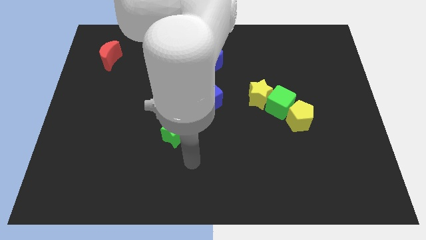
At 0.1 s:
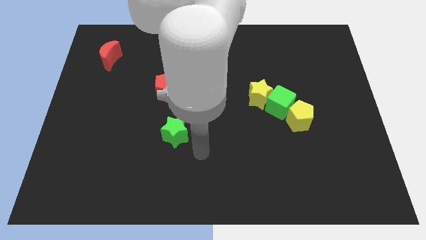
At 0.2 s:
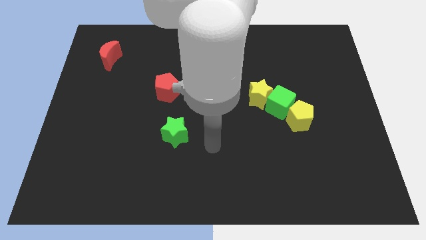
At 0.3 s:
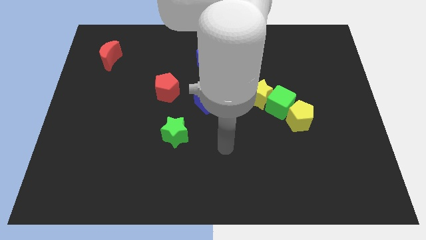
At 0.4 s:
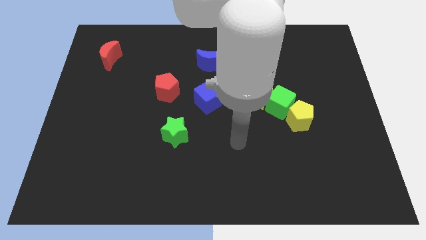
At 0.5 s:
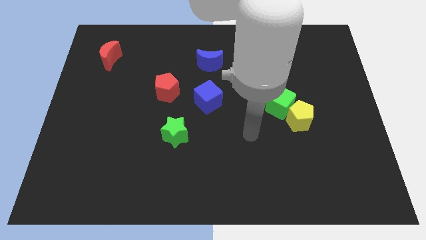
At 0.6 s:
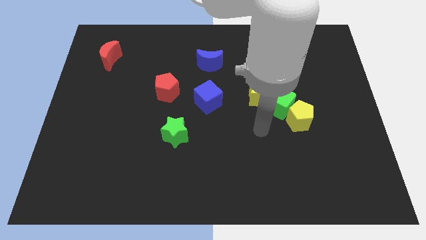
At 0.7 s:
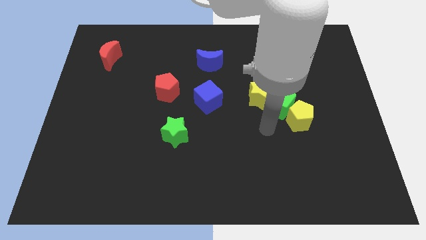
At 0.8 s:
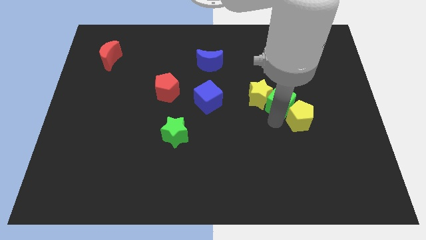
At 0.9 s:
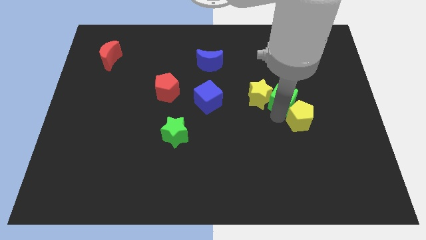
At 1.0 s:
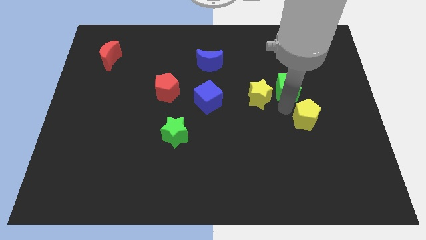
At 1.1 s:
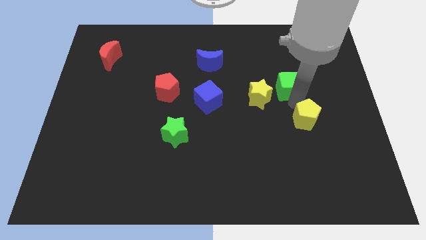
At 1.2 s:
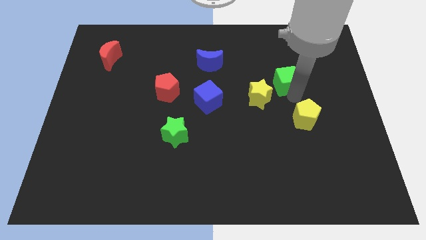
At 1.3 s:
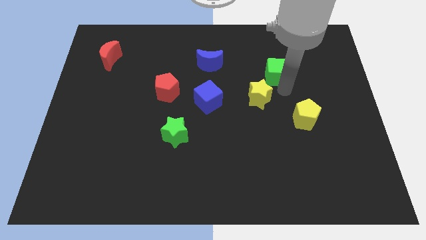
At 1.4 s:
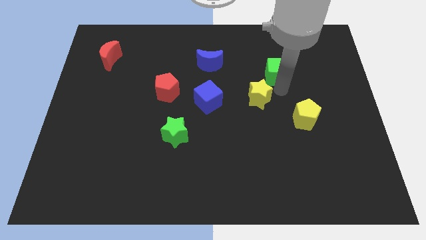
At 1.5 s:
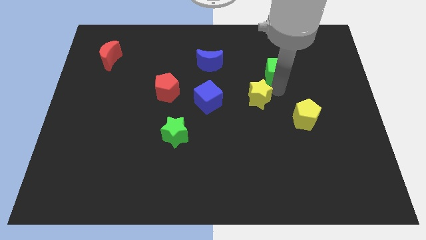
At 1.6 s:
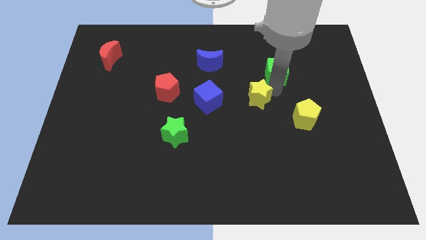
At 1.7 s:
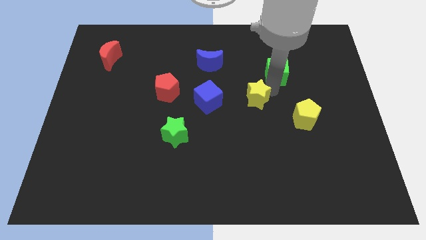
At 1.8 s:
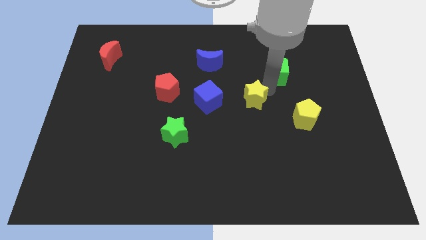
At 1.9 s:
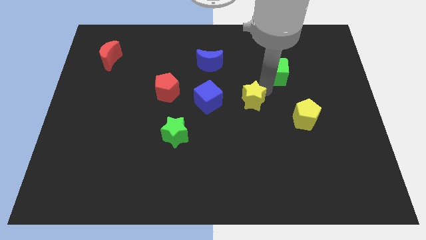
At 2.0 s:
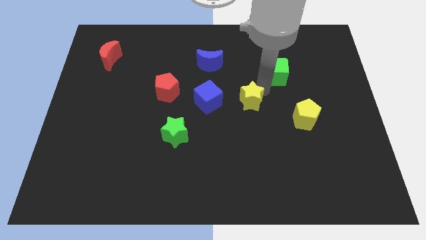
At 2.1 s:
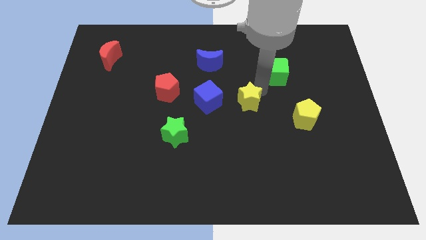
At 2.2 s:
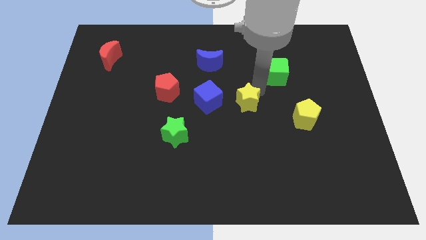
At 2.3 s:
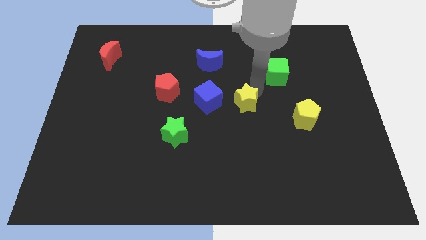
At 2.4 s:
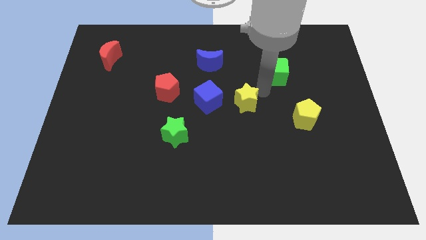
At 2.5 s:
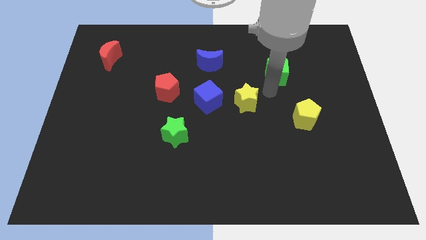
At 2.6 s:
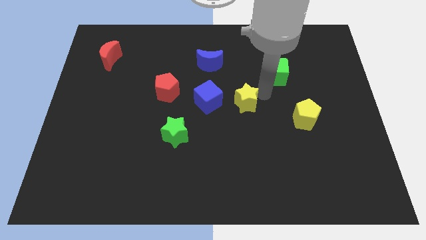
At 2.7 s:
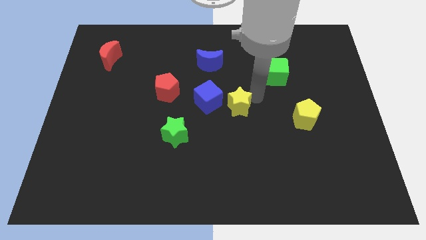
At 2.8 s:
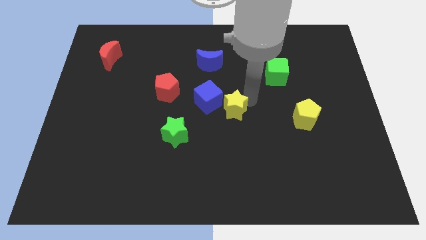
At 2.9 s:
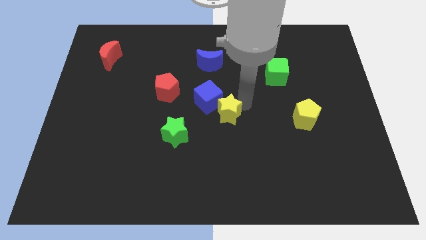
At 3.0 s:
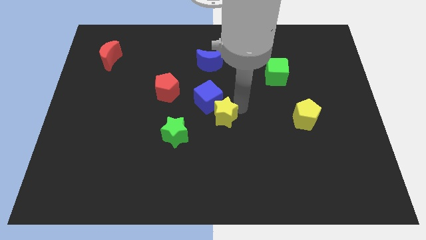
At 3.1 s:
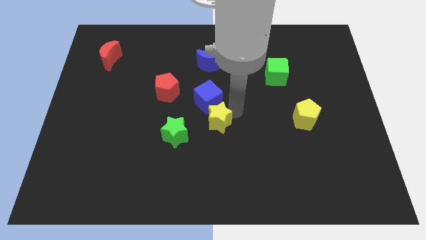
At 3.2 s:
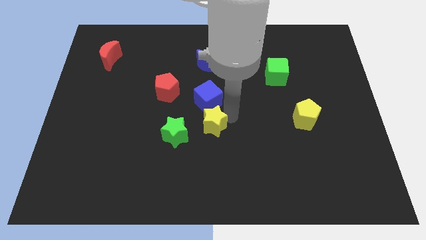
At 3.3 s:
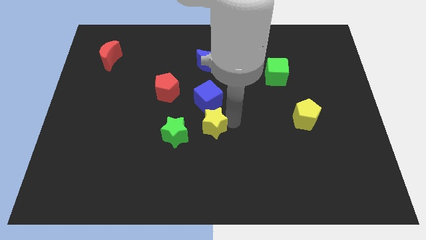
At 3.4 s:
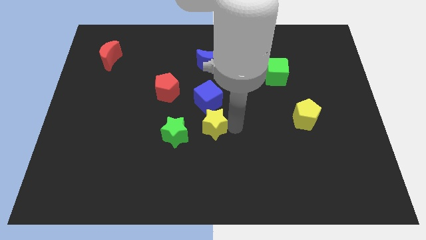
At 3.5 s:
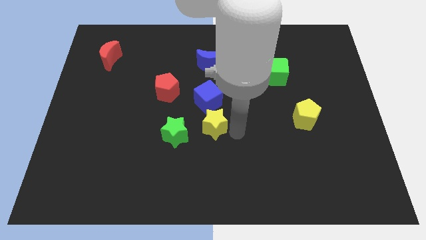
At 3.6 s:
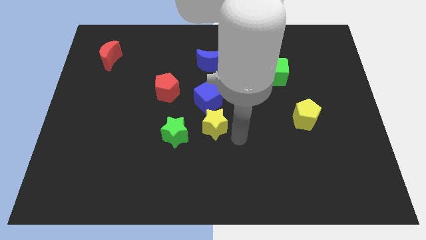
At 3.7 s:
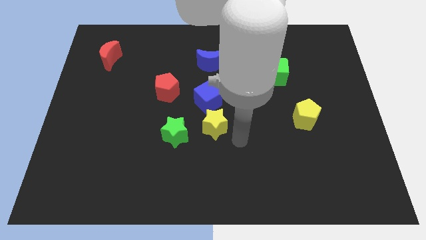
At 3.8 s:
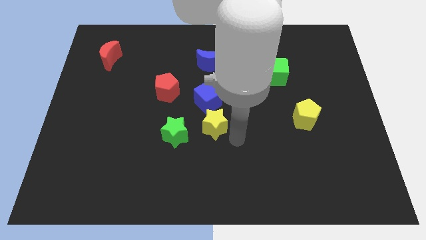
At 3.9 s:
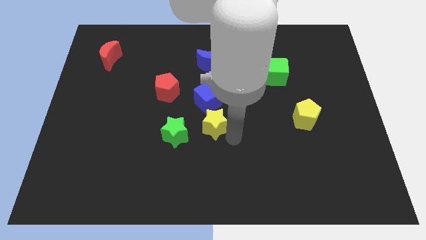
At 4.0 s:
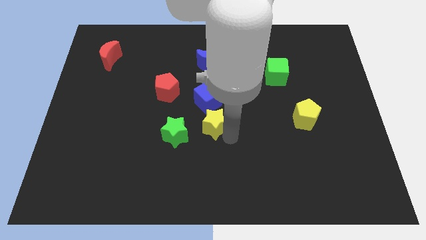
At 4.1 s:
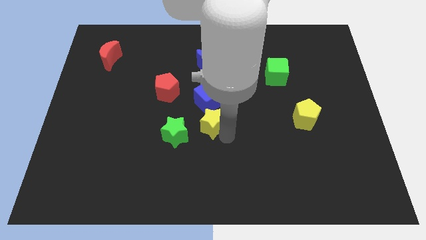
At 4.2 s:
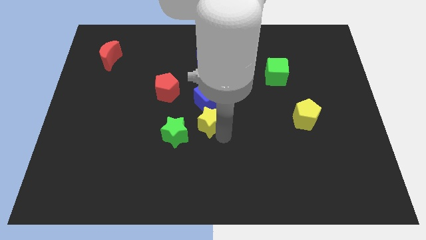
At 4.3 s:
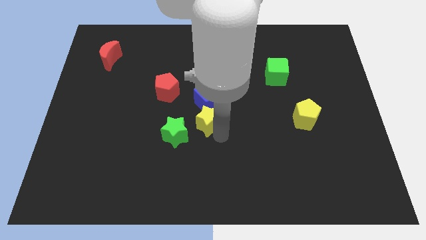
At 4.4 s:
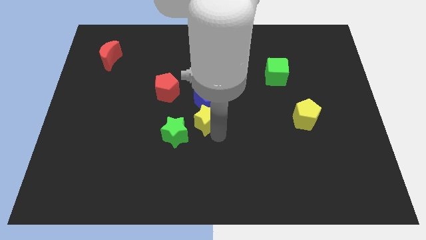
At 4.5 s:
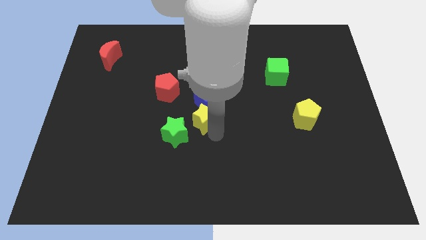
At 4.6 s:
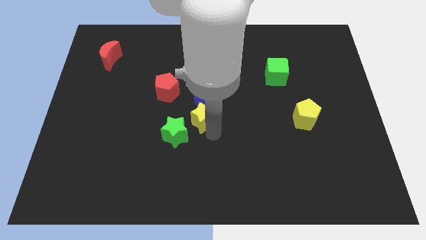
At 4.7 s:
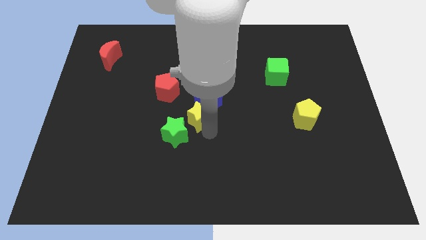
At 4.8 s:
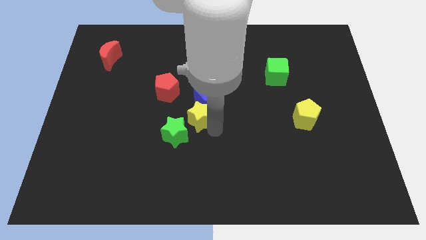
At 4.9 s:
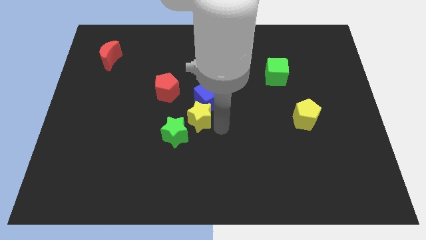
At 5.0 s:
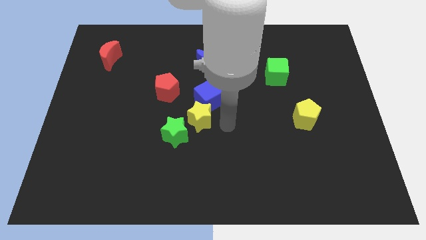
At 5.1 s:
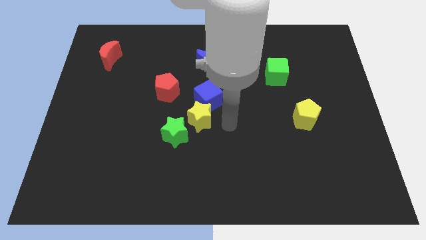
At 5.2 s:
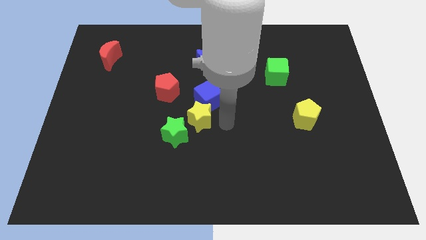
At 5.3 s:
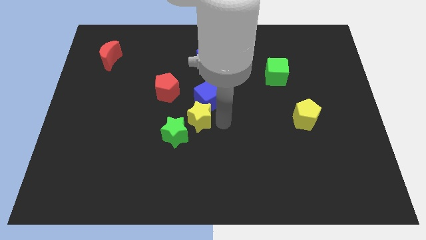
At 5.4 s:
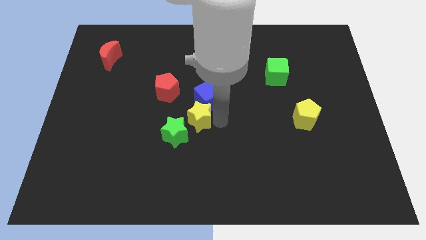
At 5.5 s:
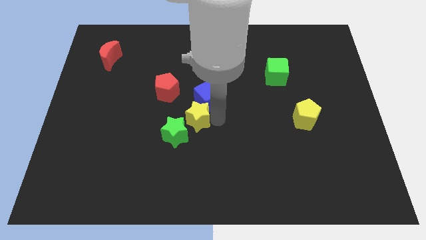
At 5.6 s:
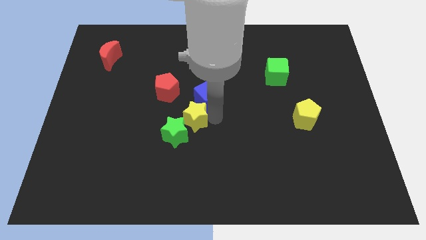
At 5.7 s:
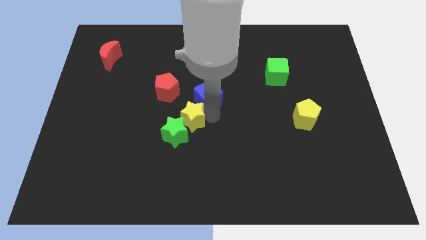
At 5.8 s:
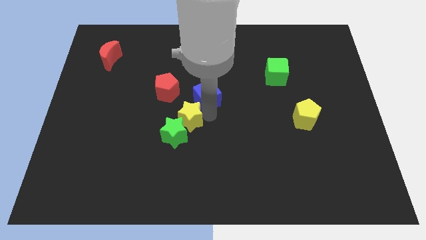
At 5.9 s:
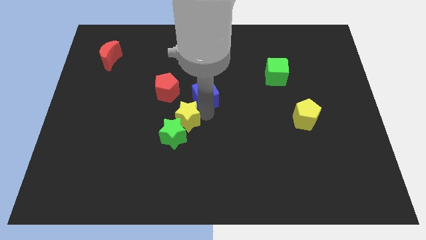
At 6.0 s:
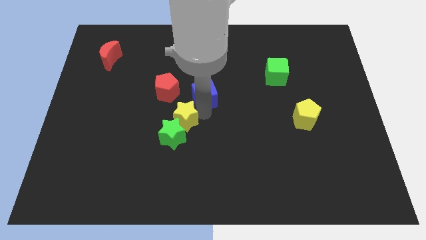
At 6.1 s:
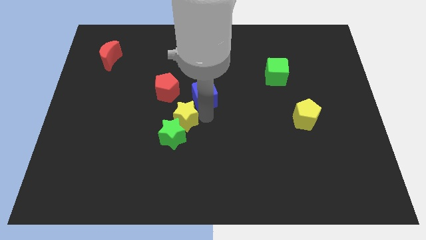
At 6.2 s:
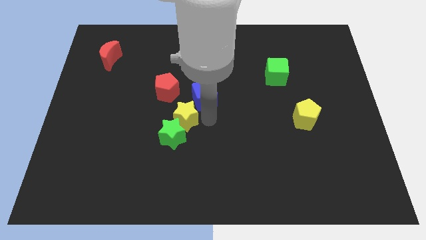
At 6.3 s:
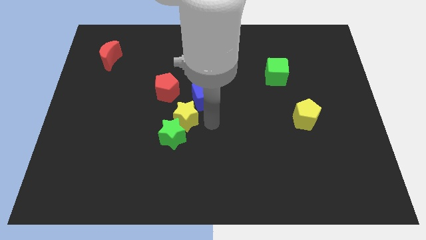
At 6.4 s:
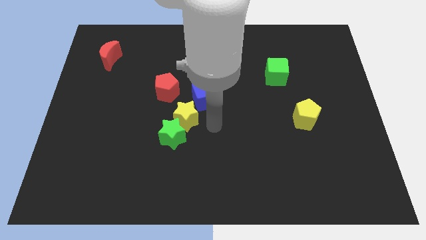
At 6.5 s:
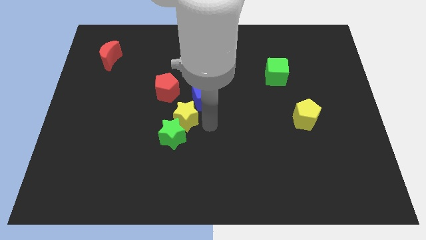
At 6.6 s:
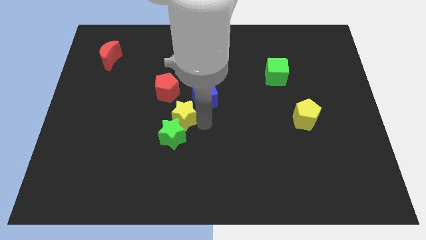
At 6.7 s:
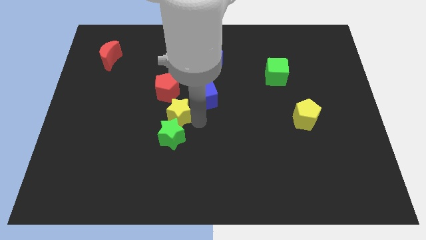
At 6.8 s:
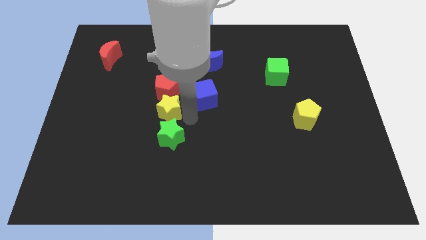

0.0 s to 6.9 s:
move the yellow star left

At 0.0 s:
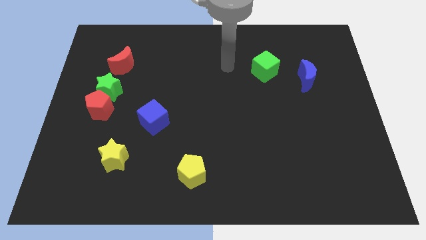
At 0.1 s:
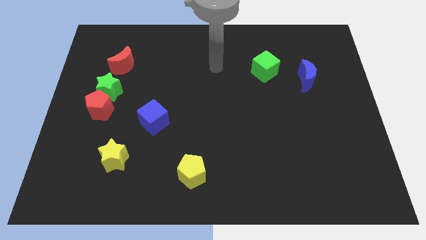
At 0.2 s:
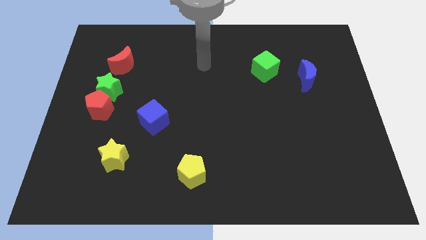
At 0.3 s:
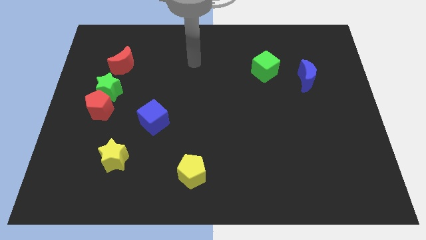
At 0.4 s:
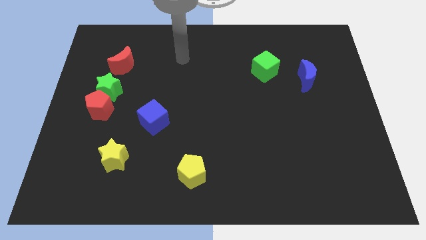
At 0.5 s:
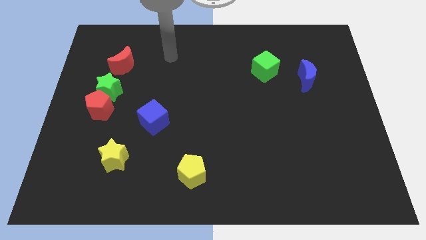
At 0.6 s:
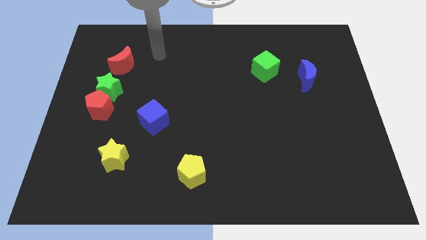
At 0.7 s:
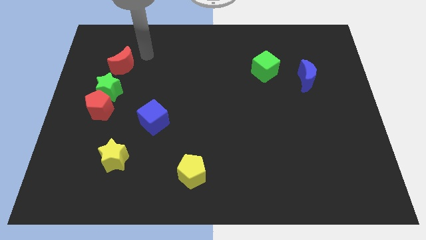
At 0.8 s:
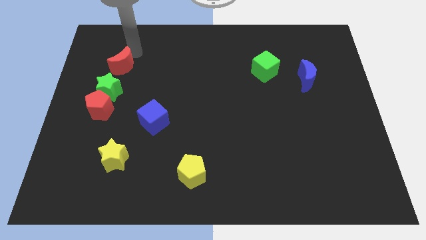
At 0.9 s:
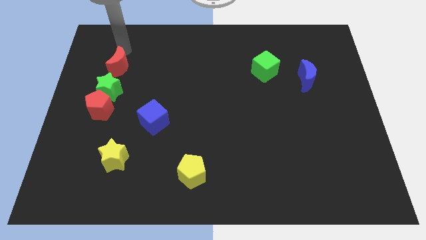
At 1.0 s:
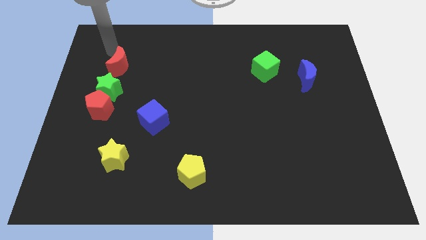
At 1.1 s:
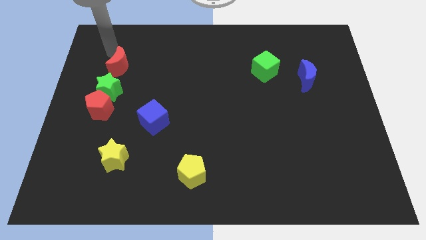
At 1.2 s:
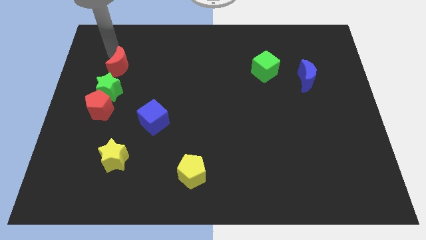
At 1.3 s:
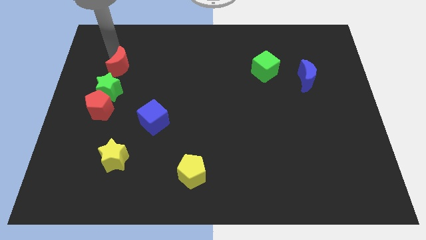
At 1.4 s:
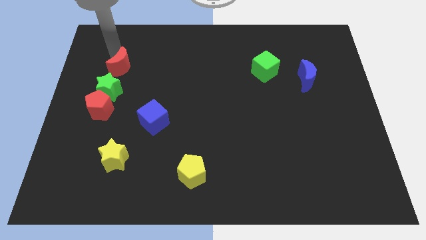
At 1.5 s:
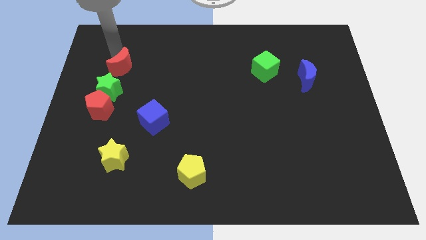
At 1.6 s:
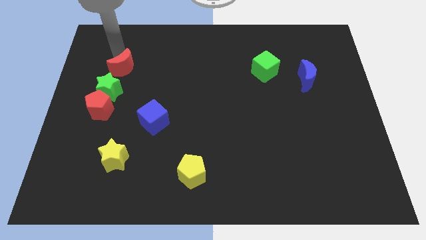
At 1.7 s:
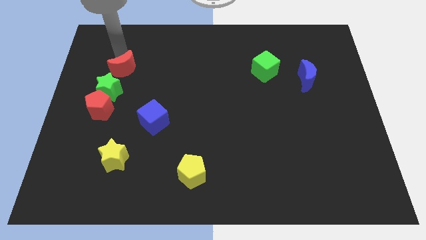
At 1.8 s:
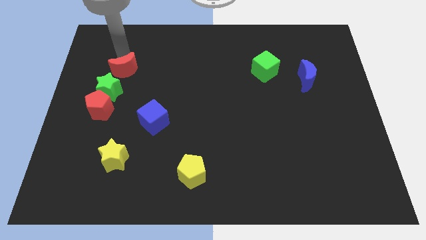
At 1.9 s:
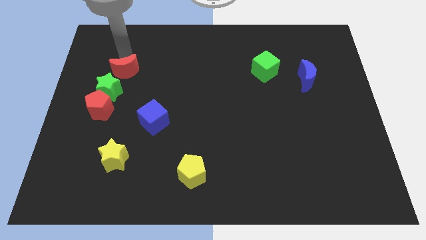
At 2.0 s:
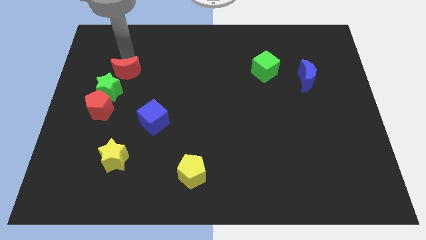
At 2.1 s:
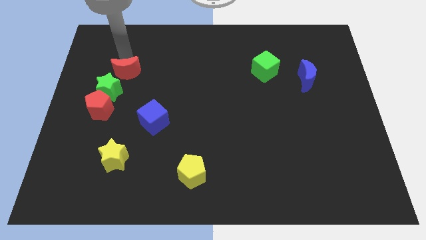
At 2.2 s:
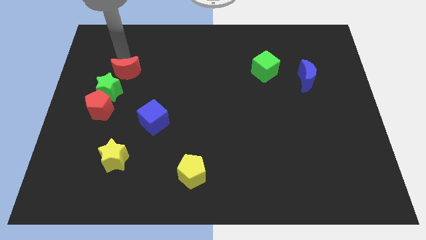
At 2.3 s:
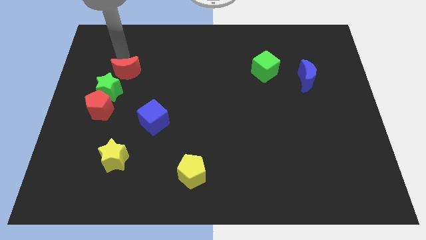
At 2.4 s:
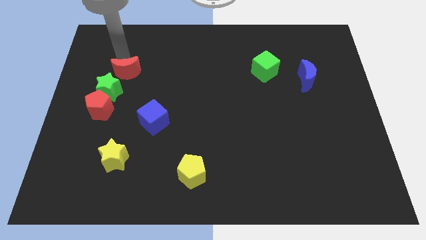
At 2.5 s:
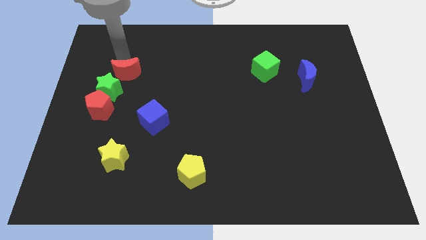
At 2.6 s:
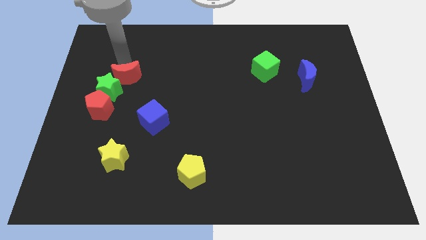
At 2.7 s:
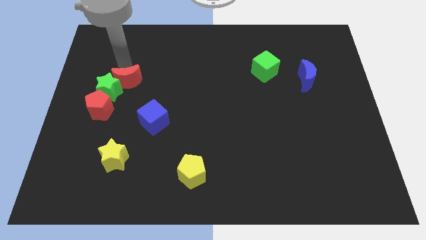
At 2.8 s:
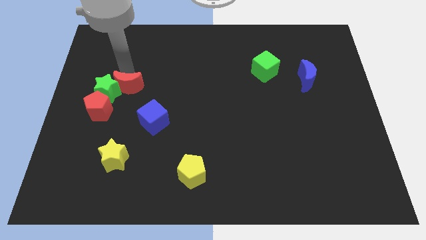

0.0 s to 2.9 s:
move the red moon down a little
